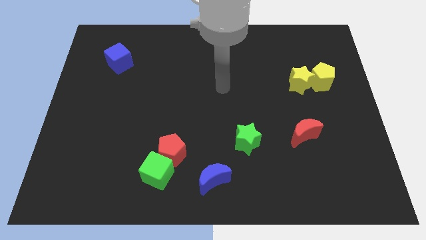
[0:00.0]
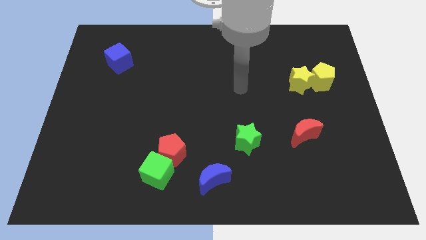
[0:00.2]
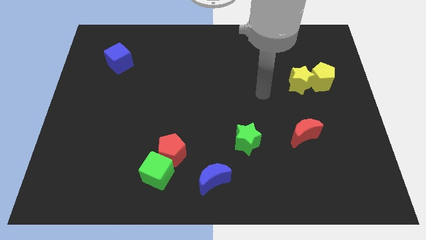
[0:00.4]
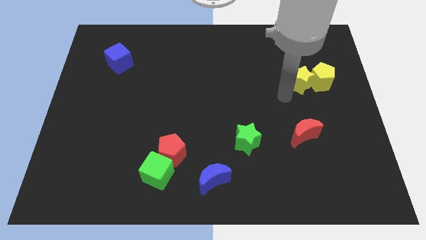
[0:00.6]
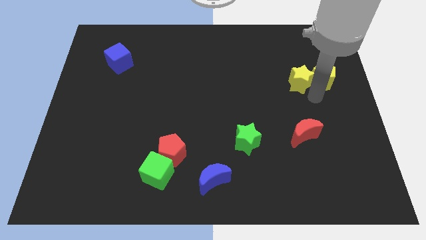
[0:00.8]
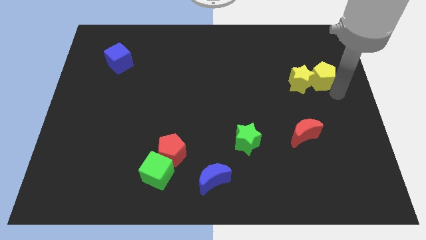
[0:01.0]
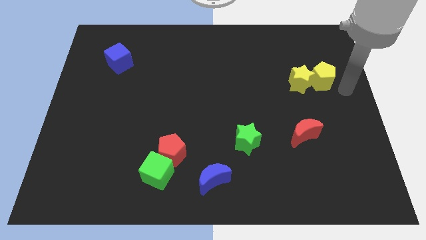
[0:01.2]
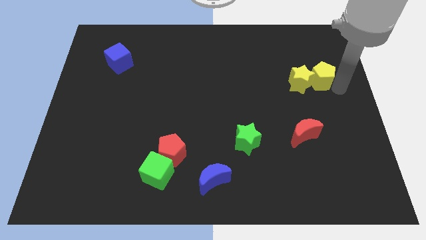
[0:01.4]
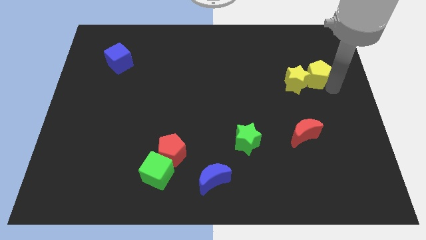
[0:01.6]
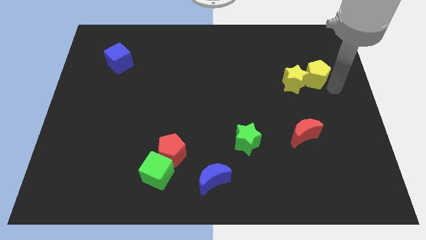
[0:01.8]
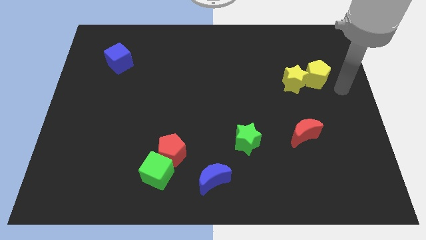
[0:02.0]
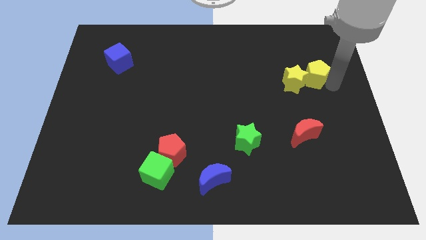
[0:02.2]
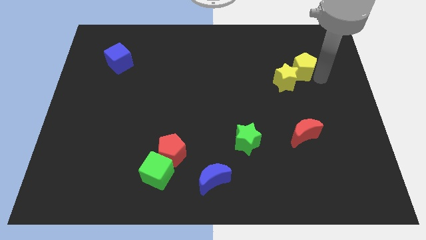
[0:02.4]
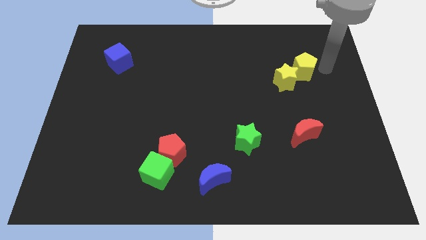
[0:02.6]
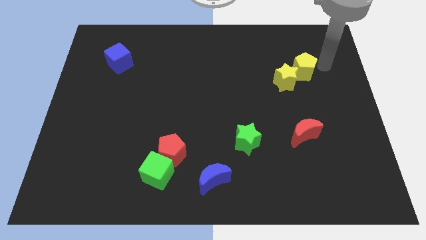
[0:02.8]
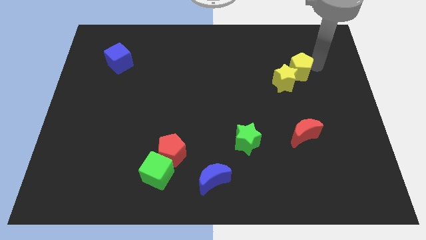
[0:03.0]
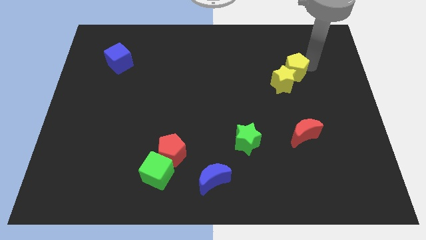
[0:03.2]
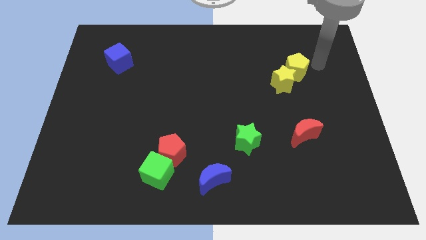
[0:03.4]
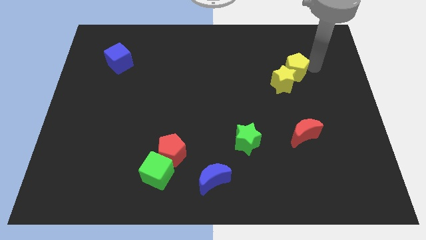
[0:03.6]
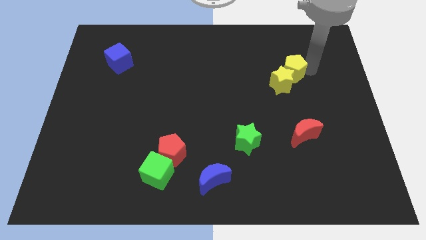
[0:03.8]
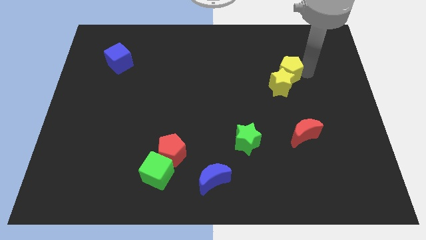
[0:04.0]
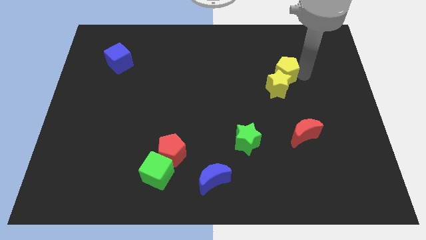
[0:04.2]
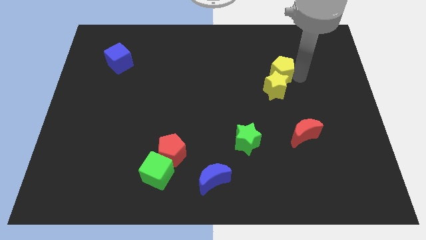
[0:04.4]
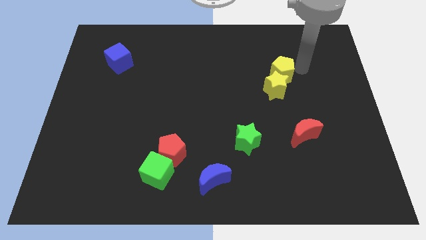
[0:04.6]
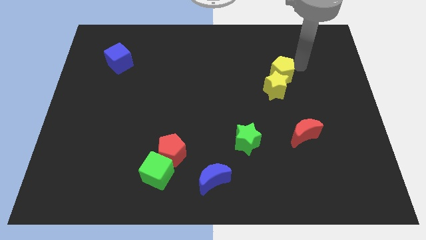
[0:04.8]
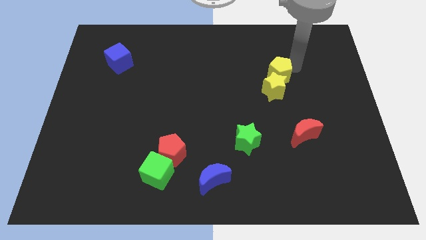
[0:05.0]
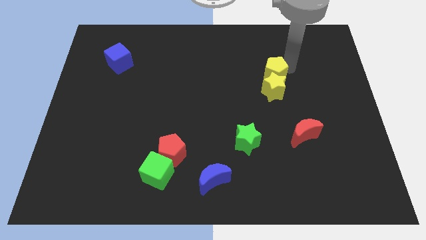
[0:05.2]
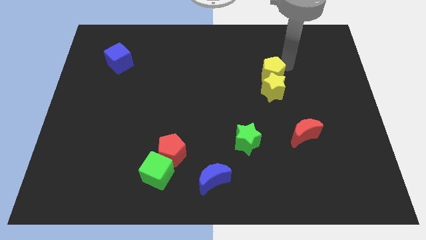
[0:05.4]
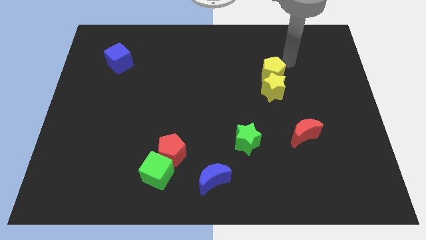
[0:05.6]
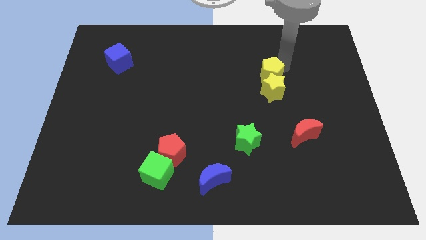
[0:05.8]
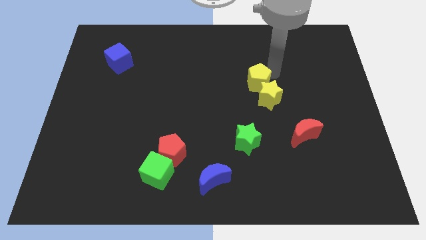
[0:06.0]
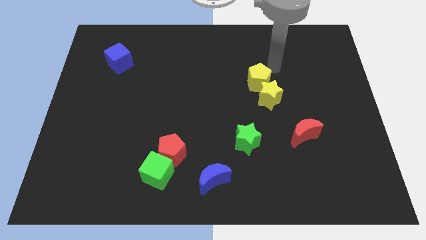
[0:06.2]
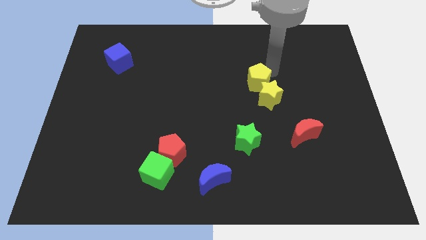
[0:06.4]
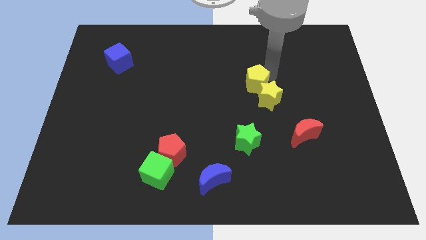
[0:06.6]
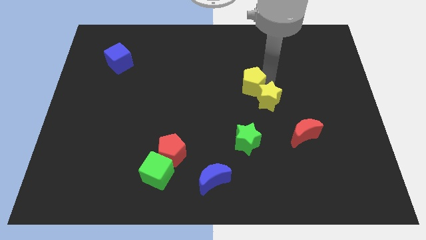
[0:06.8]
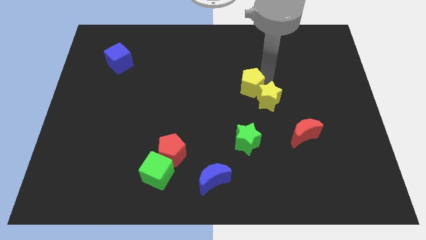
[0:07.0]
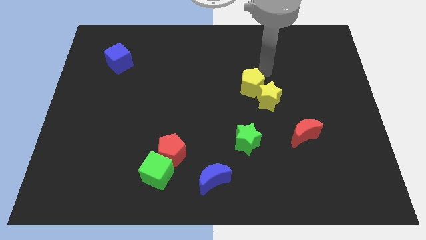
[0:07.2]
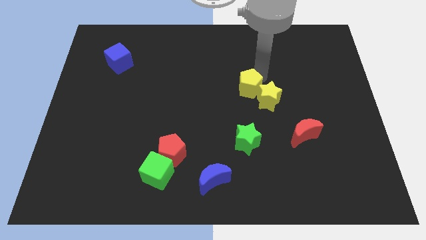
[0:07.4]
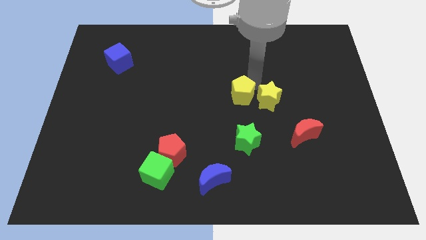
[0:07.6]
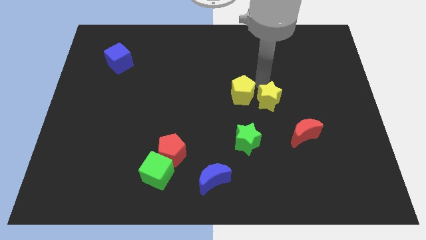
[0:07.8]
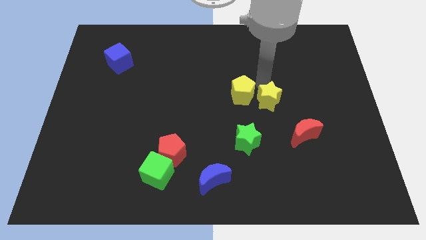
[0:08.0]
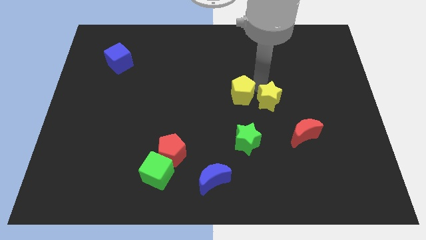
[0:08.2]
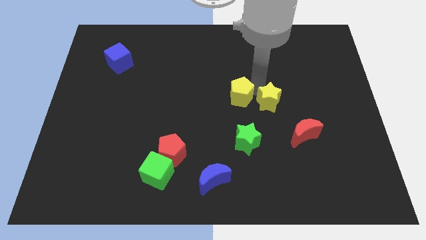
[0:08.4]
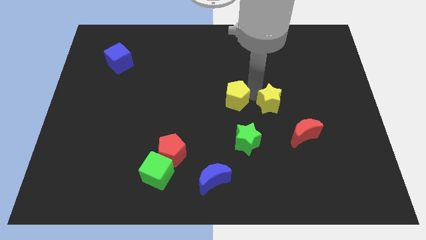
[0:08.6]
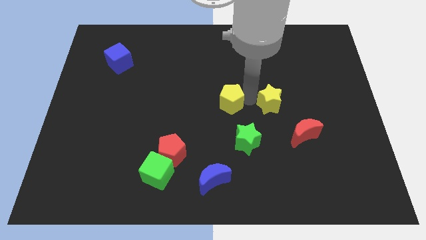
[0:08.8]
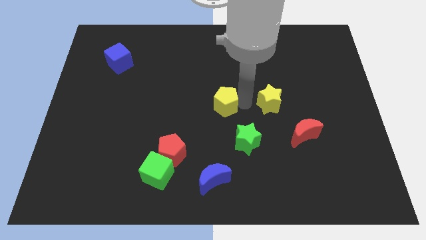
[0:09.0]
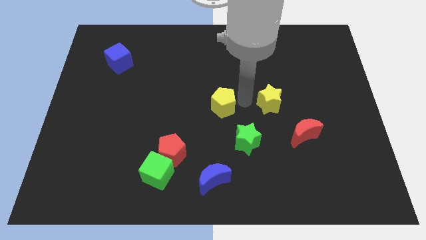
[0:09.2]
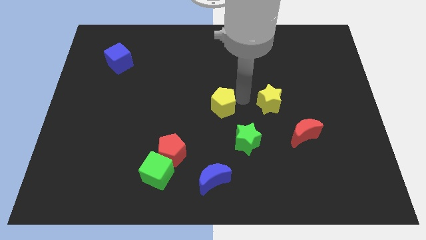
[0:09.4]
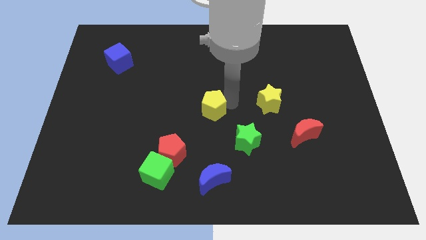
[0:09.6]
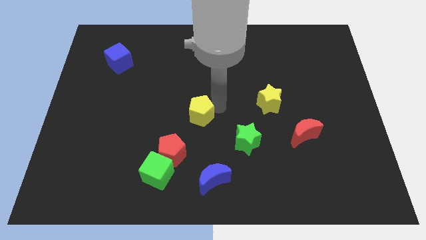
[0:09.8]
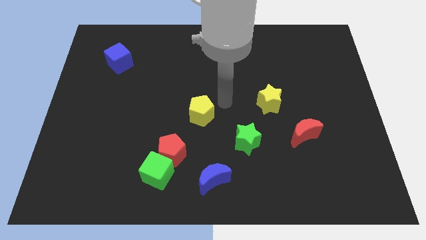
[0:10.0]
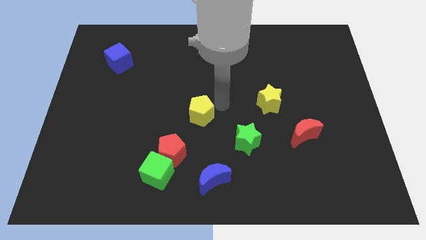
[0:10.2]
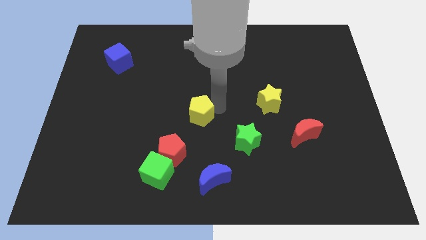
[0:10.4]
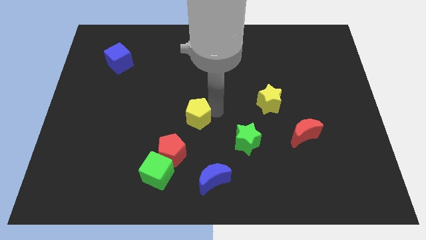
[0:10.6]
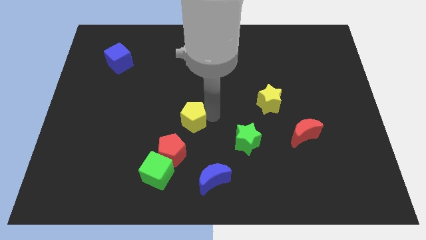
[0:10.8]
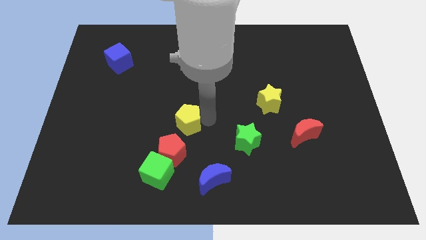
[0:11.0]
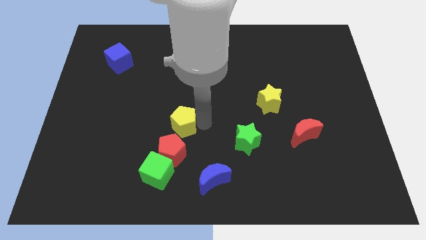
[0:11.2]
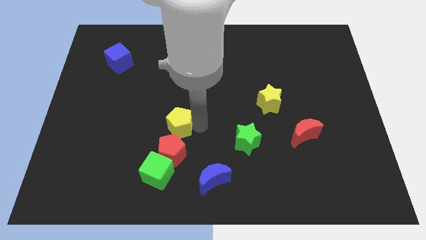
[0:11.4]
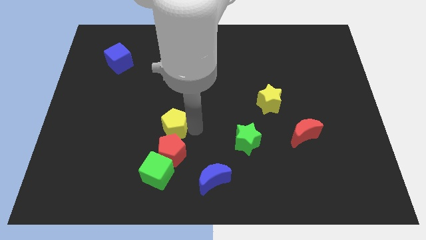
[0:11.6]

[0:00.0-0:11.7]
slide the yellow pentagon diagonally up and to the left of the red pentagon

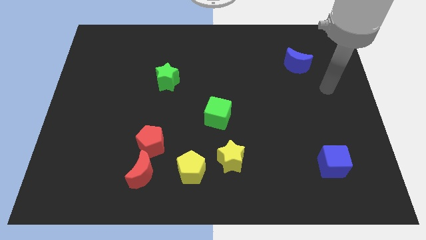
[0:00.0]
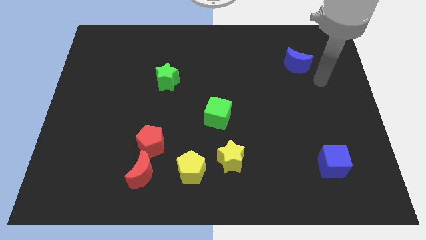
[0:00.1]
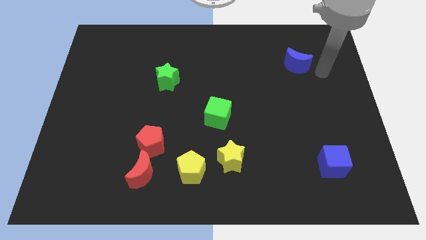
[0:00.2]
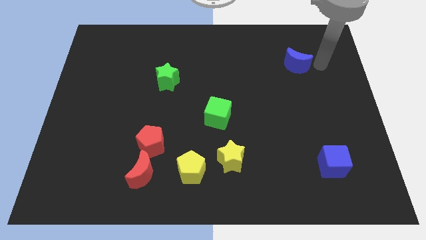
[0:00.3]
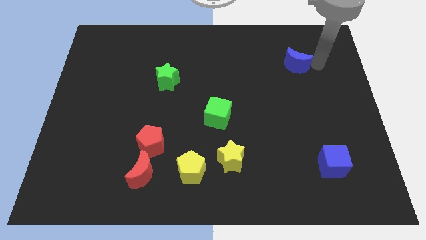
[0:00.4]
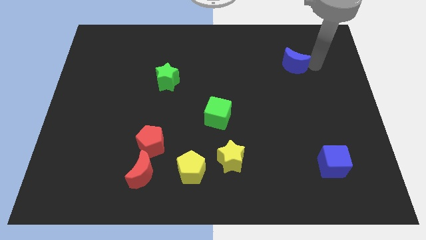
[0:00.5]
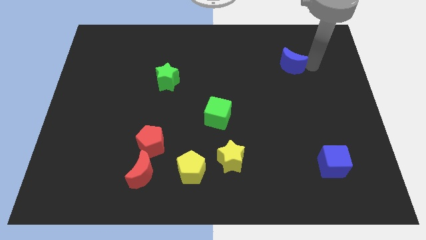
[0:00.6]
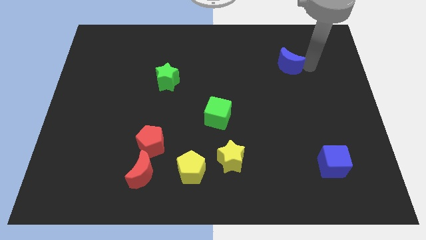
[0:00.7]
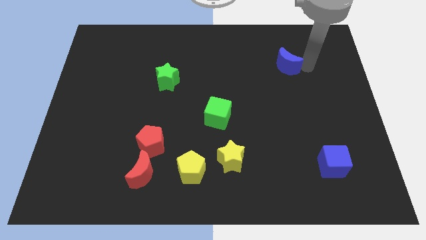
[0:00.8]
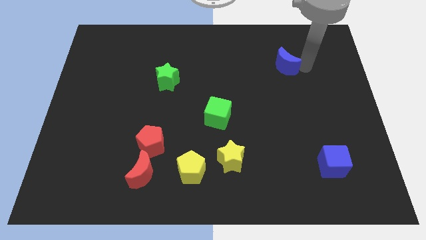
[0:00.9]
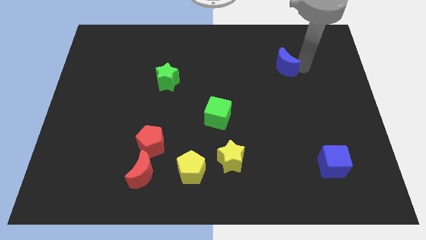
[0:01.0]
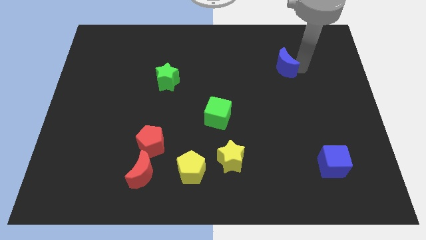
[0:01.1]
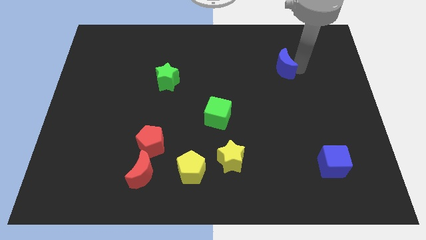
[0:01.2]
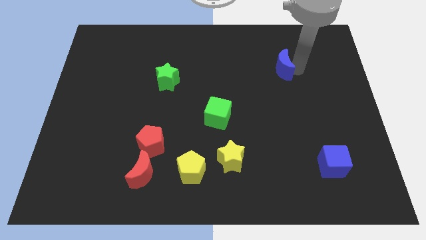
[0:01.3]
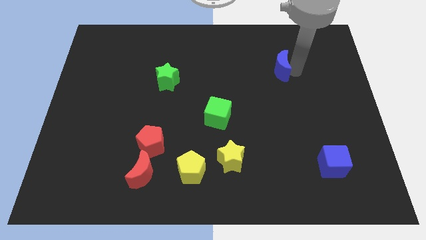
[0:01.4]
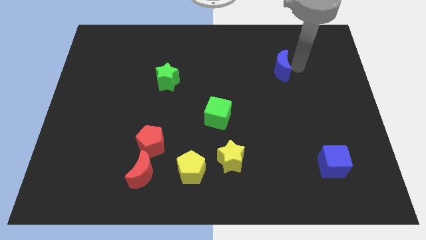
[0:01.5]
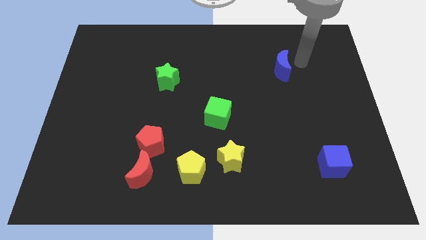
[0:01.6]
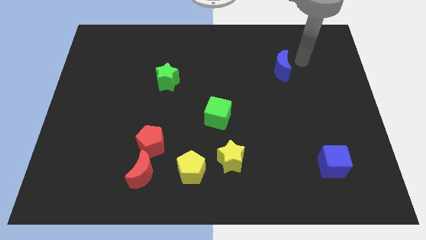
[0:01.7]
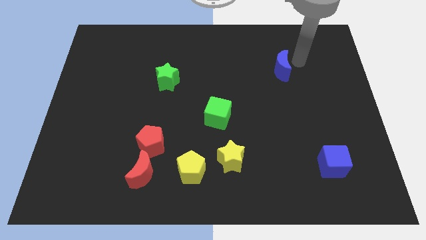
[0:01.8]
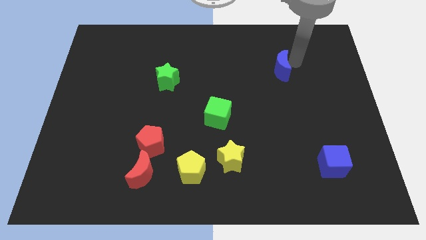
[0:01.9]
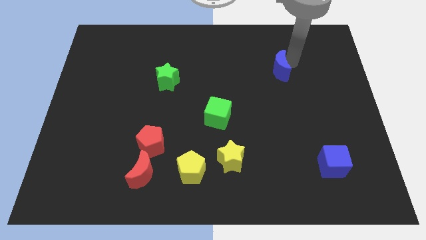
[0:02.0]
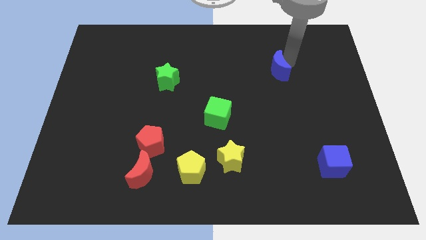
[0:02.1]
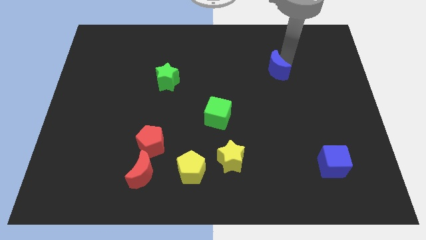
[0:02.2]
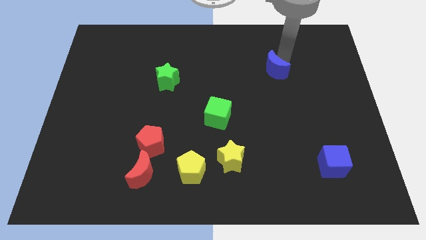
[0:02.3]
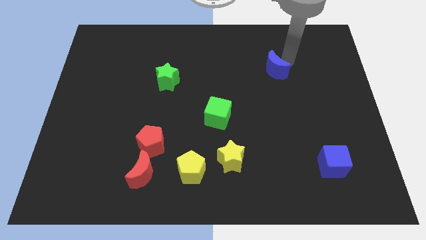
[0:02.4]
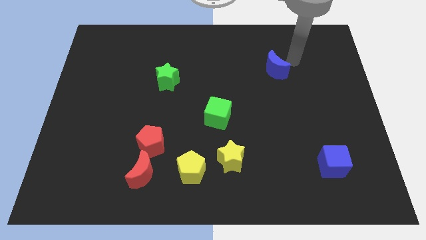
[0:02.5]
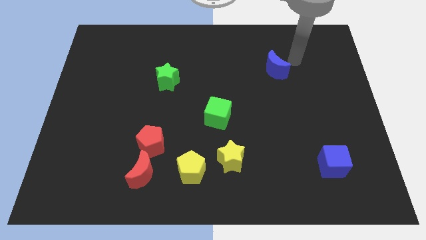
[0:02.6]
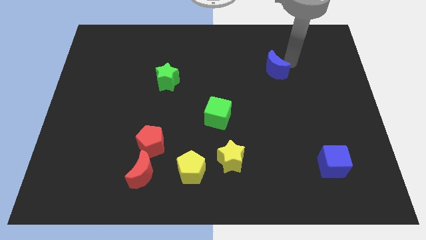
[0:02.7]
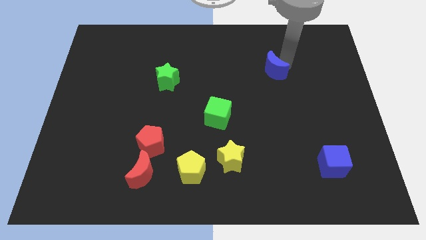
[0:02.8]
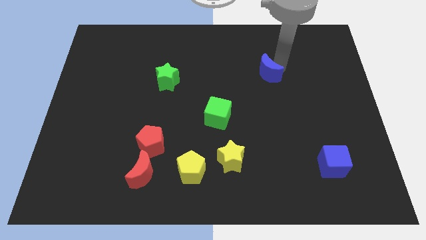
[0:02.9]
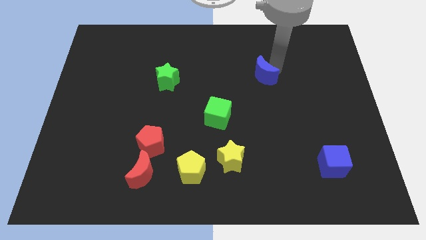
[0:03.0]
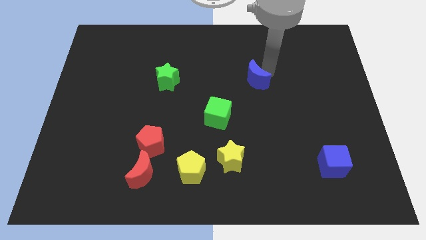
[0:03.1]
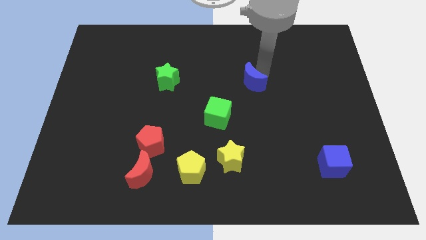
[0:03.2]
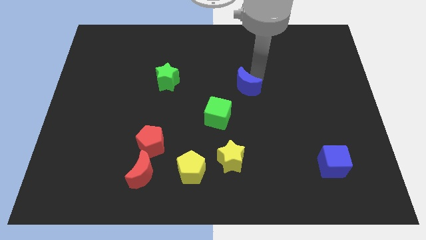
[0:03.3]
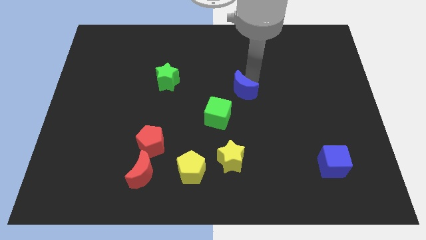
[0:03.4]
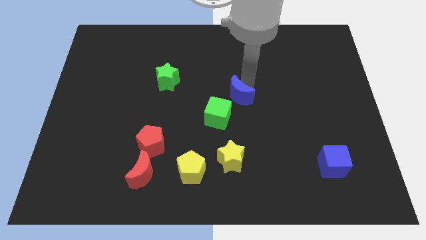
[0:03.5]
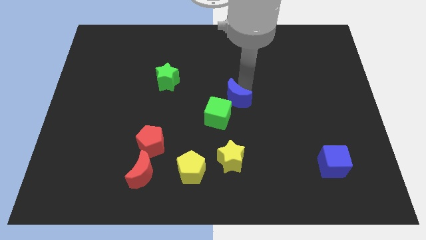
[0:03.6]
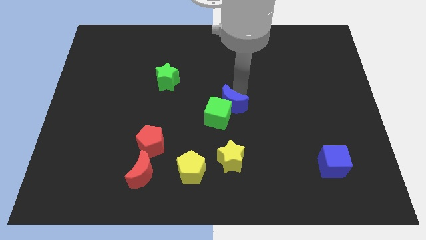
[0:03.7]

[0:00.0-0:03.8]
slide the blue moon to the top of the yellow star
